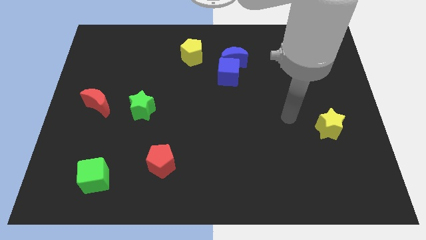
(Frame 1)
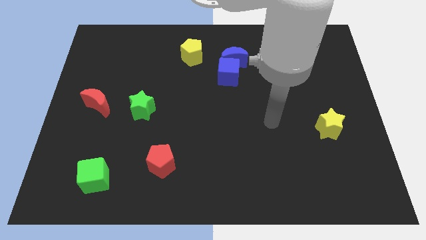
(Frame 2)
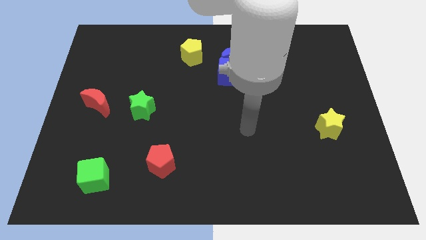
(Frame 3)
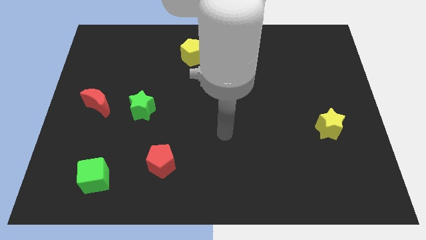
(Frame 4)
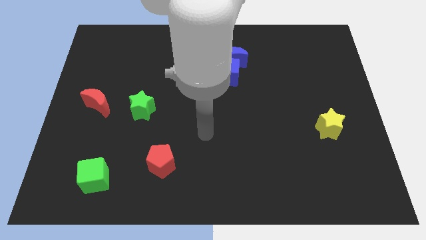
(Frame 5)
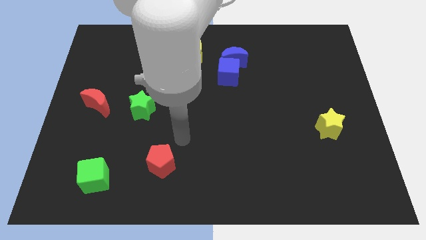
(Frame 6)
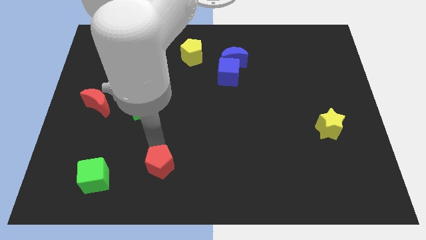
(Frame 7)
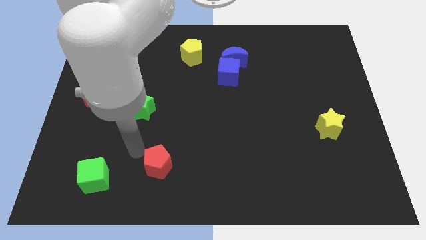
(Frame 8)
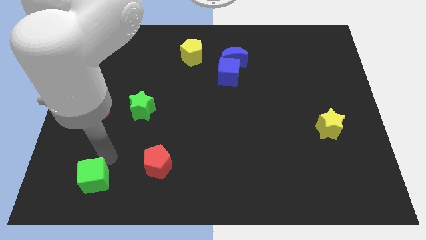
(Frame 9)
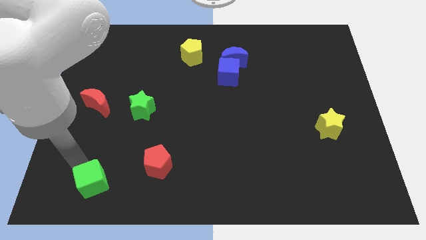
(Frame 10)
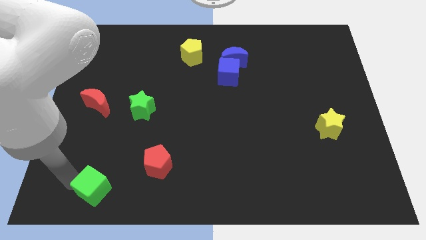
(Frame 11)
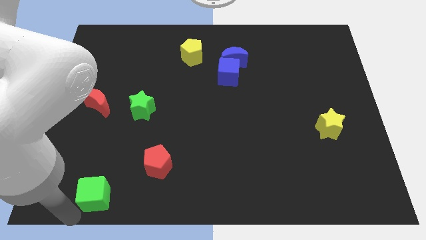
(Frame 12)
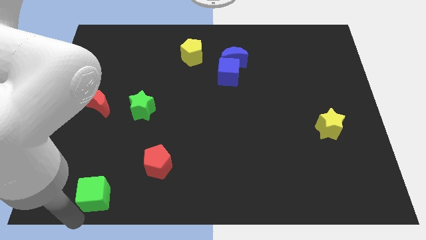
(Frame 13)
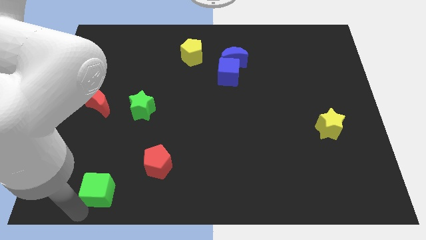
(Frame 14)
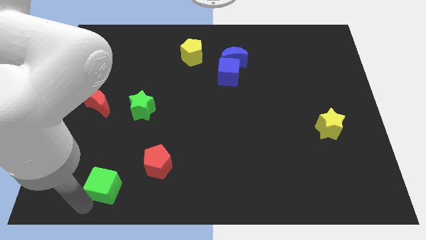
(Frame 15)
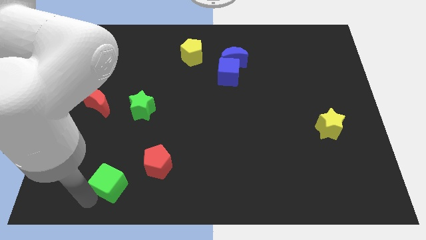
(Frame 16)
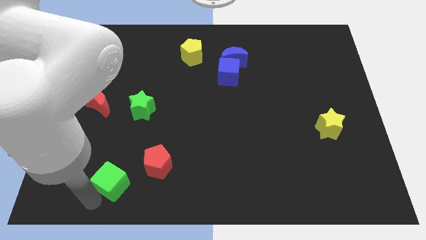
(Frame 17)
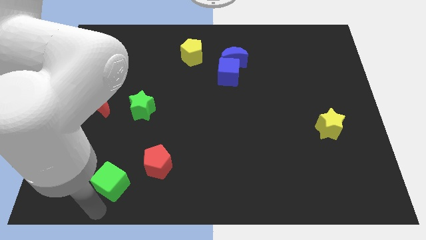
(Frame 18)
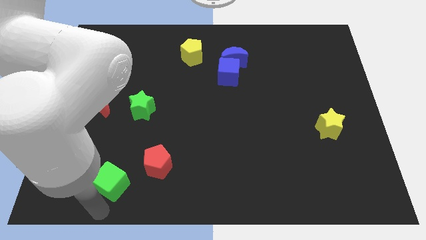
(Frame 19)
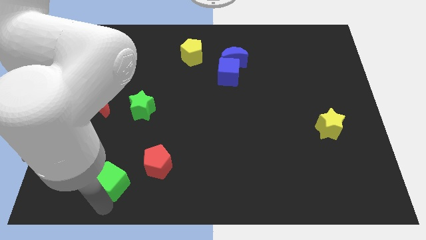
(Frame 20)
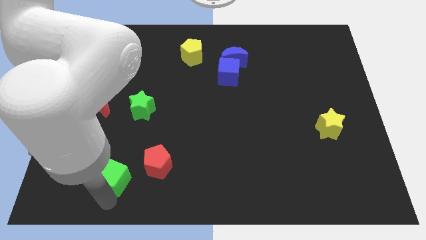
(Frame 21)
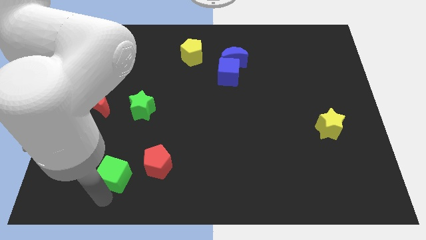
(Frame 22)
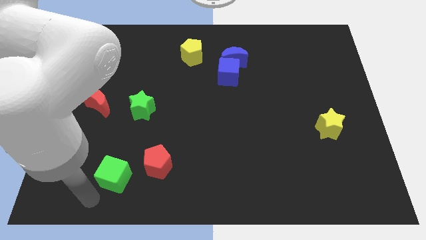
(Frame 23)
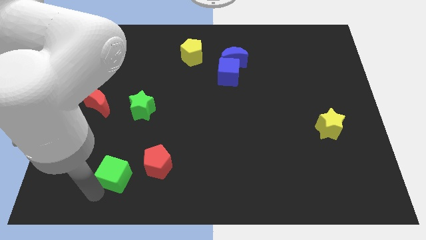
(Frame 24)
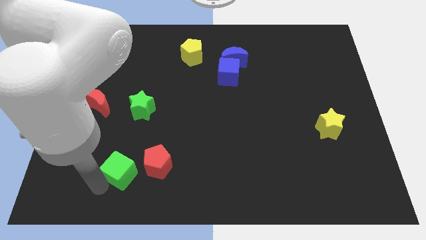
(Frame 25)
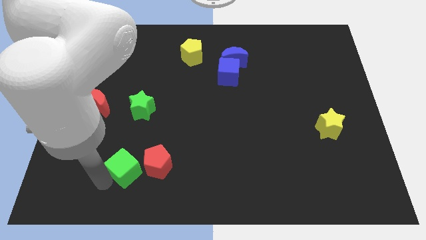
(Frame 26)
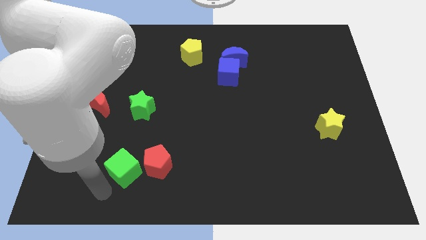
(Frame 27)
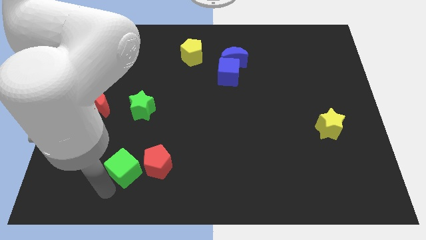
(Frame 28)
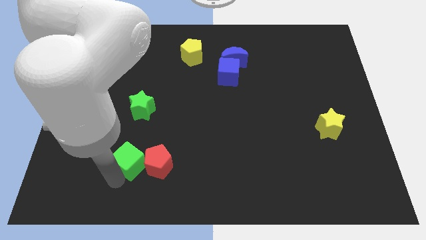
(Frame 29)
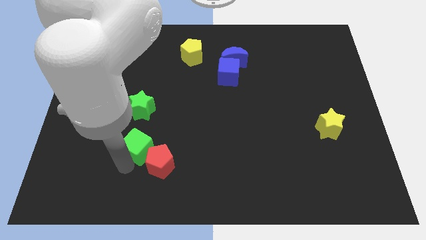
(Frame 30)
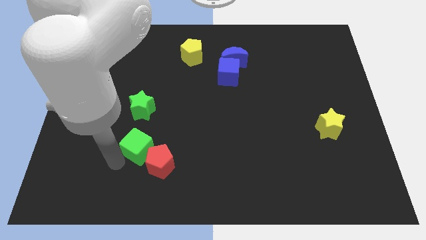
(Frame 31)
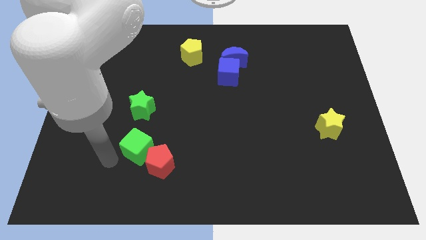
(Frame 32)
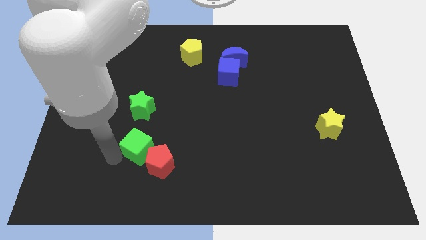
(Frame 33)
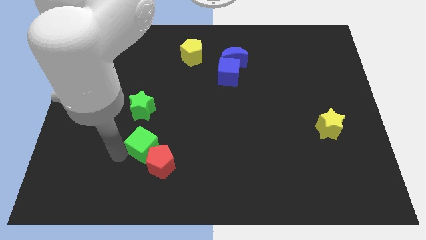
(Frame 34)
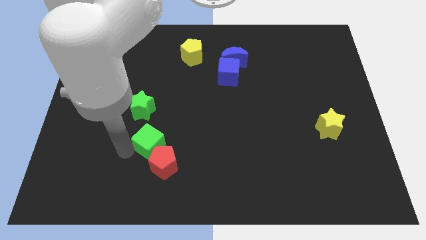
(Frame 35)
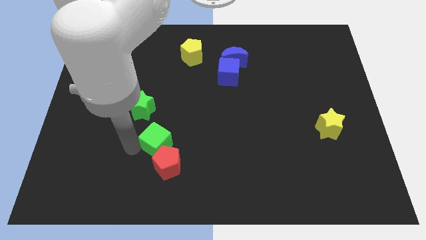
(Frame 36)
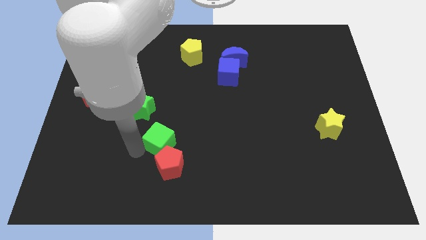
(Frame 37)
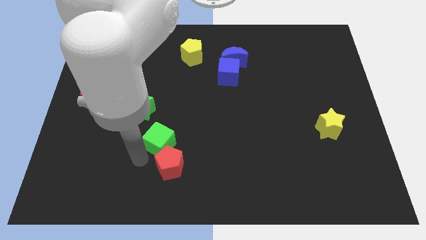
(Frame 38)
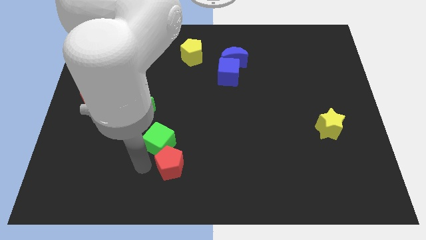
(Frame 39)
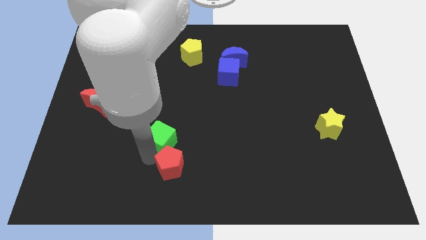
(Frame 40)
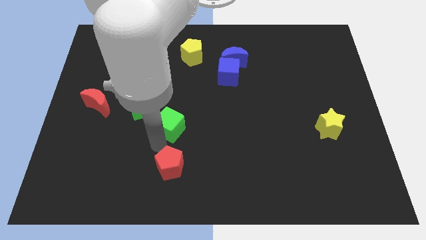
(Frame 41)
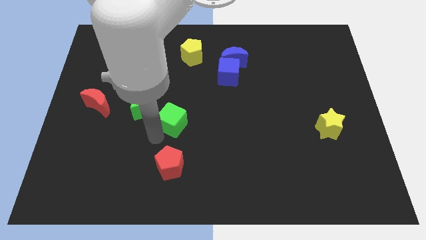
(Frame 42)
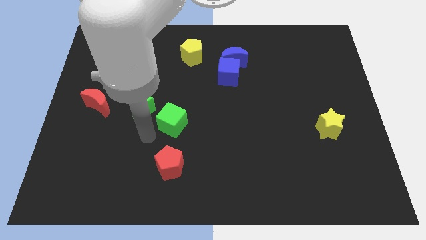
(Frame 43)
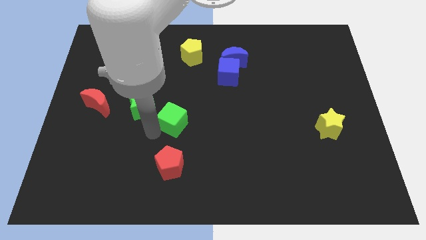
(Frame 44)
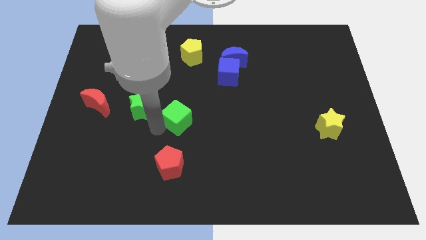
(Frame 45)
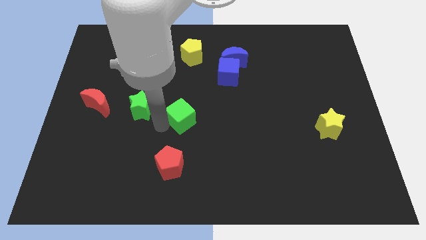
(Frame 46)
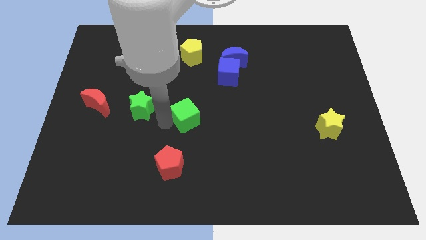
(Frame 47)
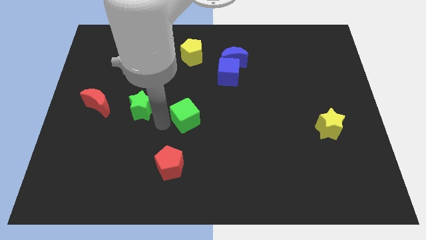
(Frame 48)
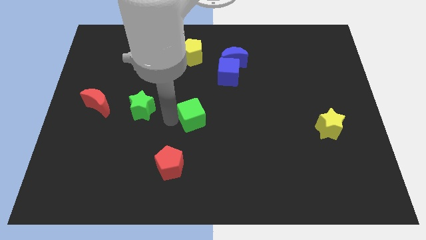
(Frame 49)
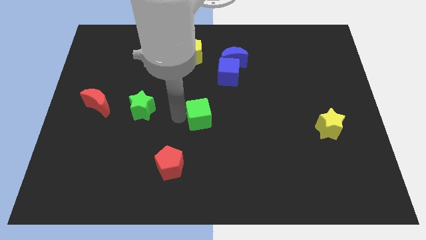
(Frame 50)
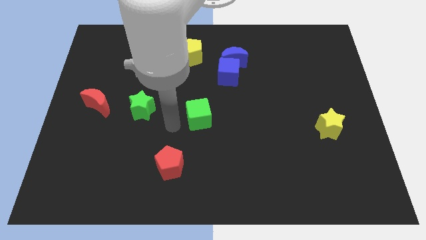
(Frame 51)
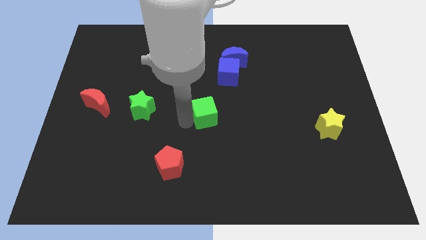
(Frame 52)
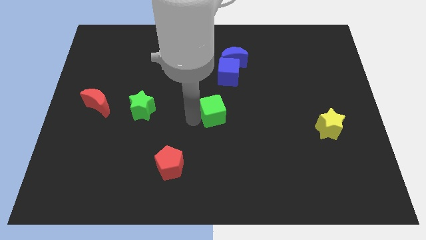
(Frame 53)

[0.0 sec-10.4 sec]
push the green cube below the blue cube

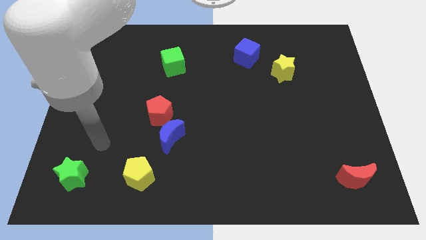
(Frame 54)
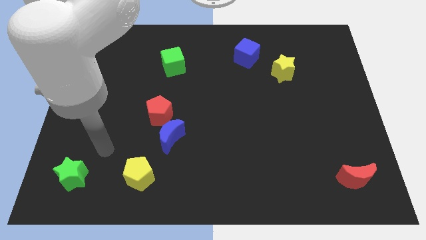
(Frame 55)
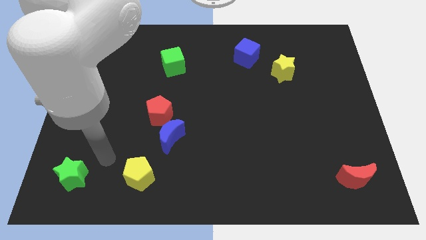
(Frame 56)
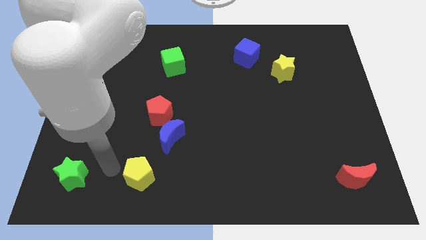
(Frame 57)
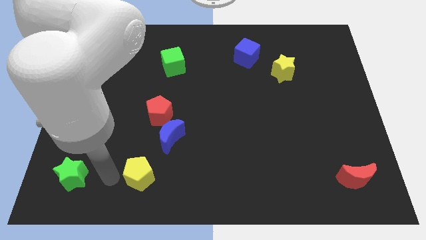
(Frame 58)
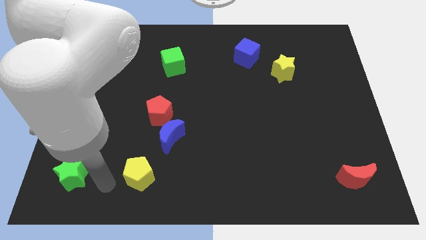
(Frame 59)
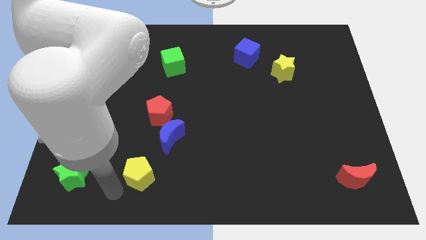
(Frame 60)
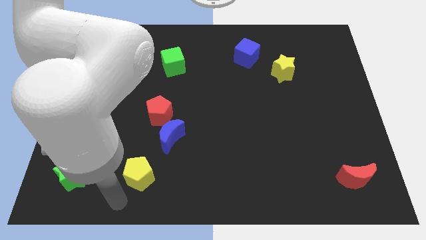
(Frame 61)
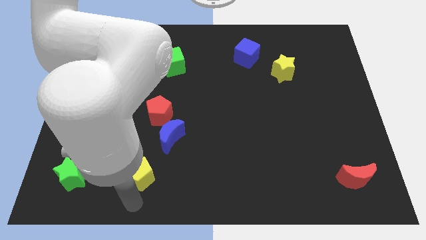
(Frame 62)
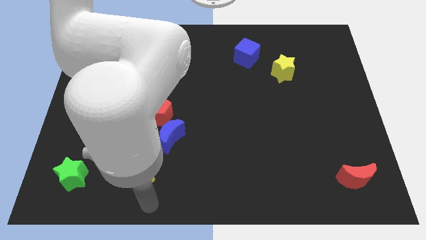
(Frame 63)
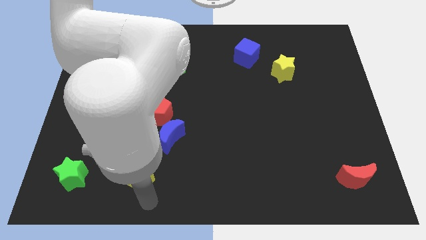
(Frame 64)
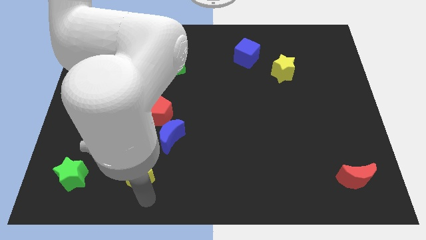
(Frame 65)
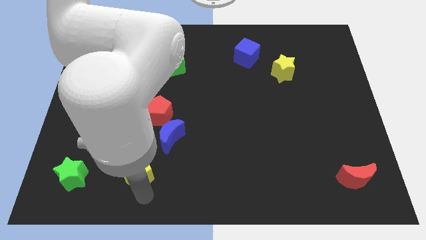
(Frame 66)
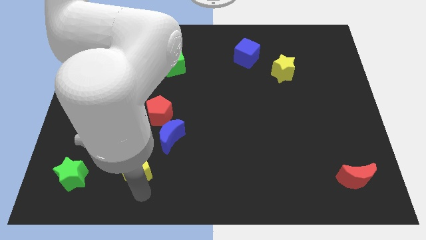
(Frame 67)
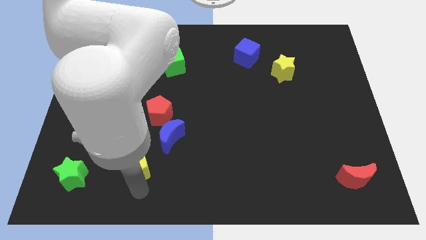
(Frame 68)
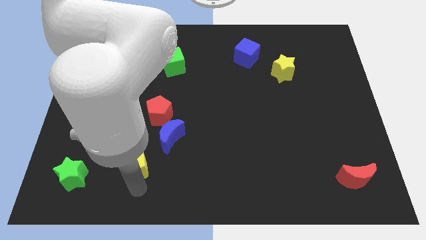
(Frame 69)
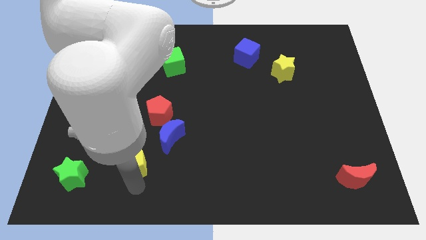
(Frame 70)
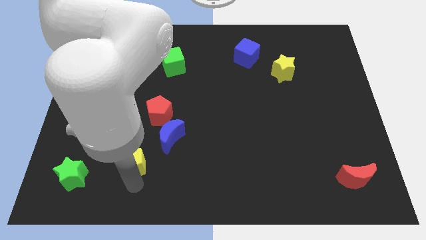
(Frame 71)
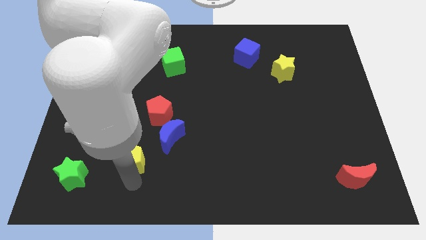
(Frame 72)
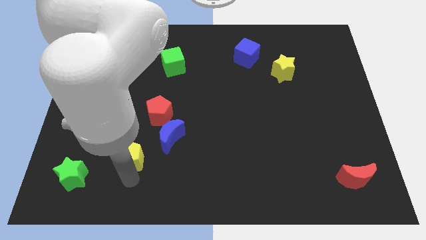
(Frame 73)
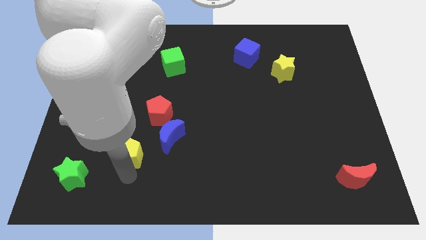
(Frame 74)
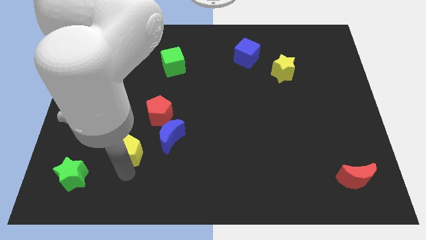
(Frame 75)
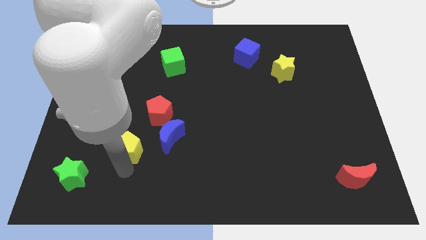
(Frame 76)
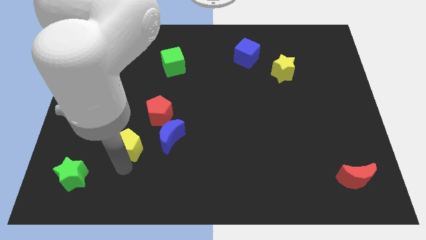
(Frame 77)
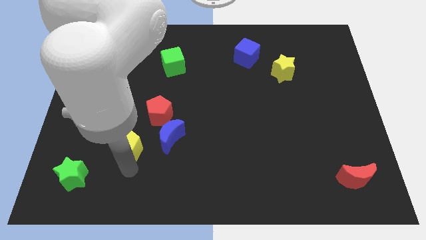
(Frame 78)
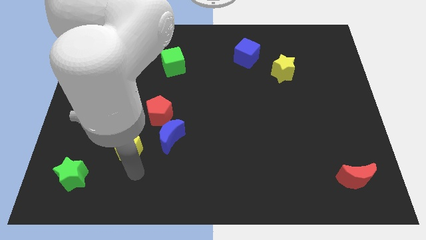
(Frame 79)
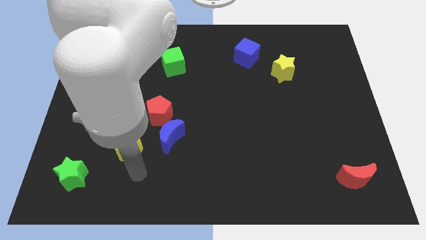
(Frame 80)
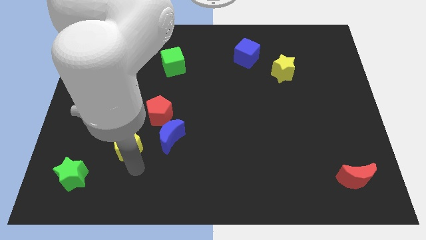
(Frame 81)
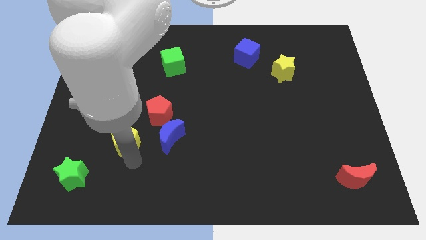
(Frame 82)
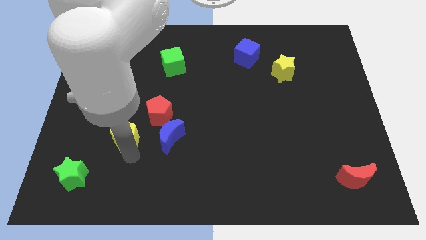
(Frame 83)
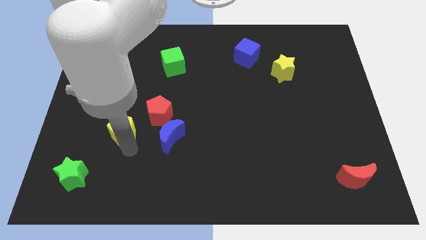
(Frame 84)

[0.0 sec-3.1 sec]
put the yellow pentagon left of the red pentagon
